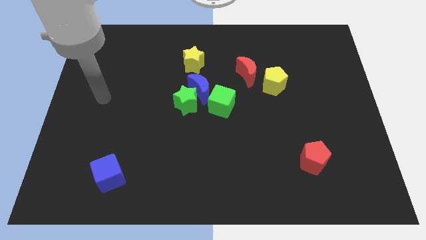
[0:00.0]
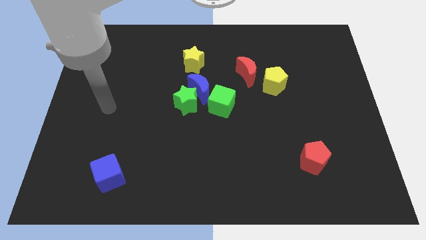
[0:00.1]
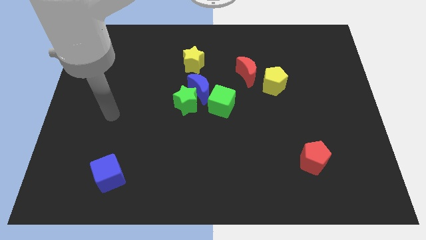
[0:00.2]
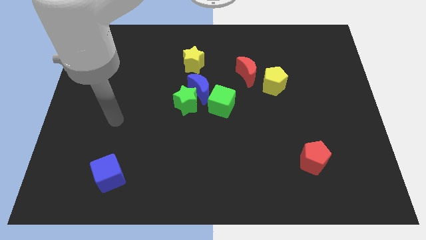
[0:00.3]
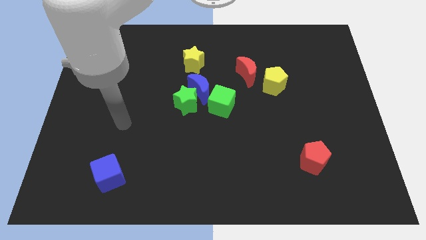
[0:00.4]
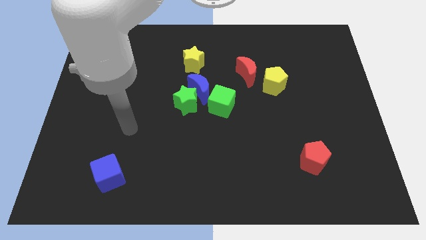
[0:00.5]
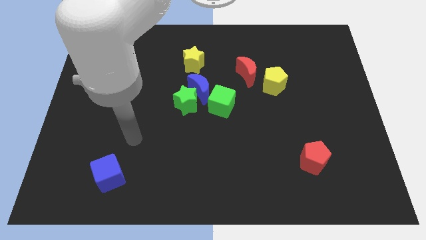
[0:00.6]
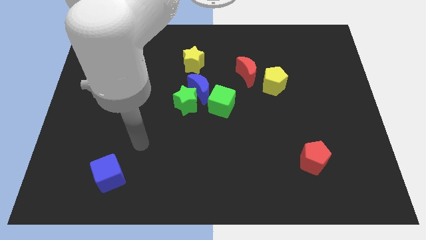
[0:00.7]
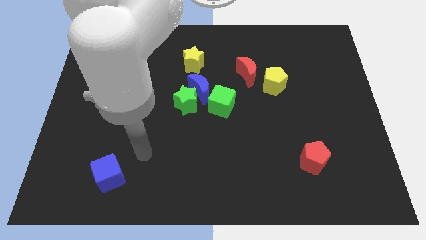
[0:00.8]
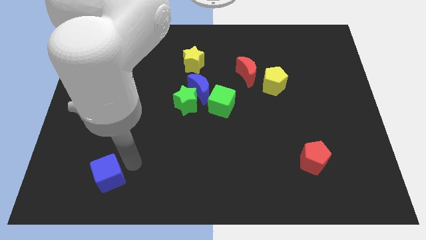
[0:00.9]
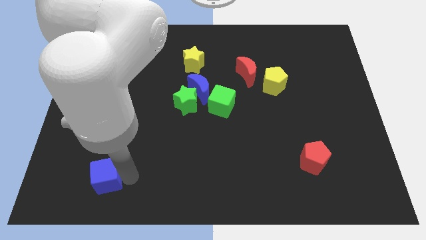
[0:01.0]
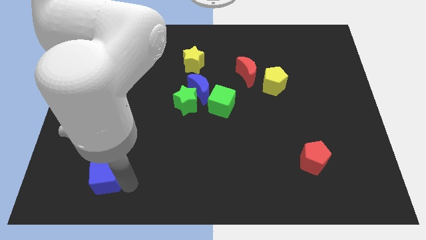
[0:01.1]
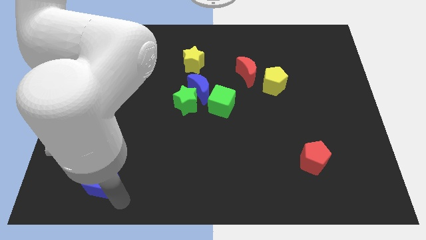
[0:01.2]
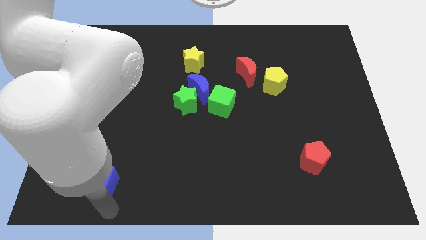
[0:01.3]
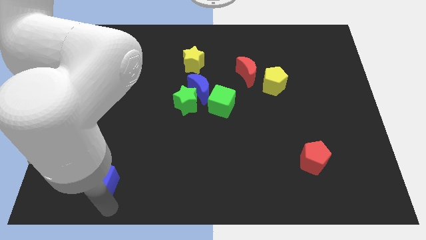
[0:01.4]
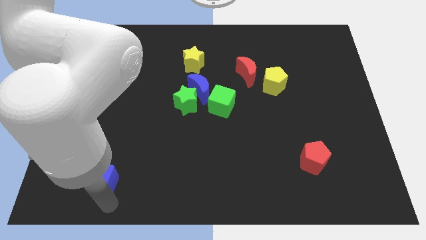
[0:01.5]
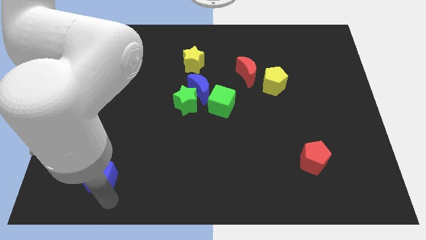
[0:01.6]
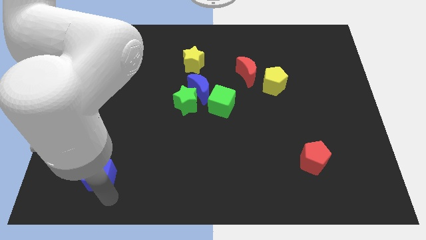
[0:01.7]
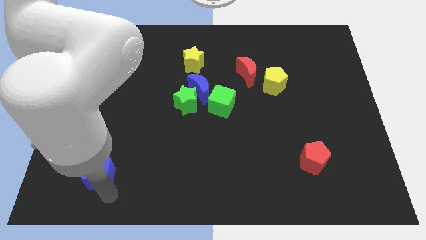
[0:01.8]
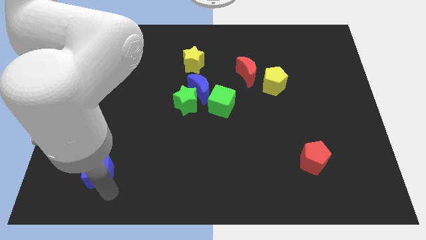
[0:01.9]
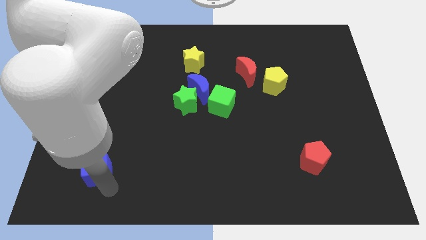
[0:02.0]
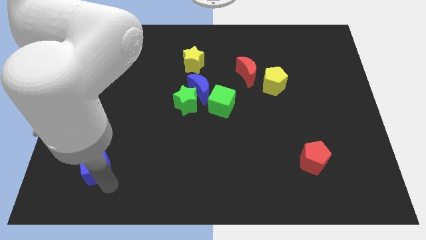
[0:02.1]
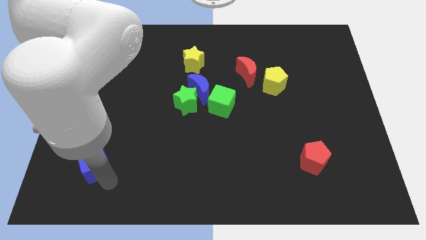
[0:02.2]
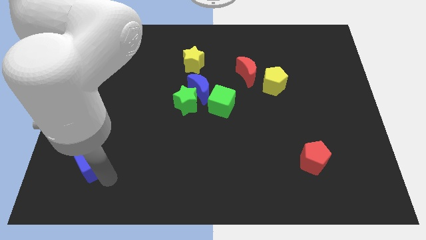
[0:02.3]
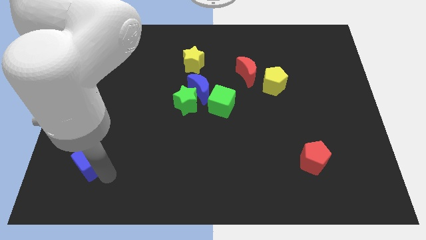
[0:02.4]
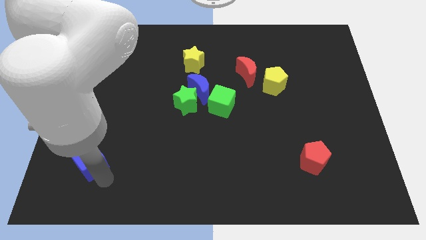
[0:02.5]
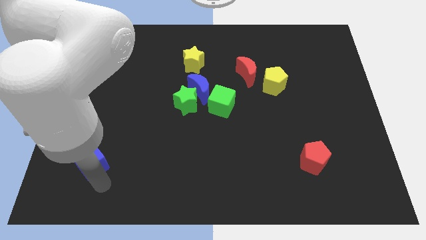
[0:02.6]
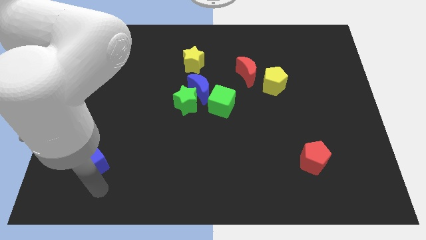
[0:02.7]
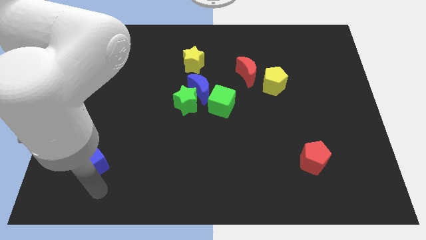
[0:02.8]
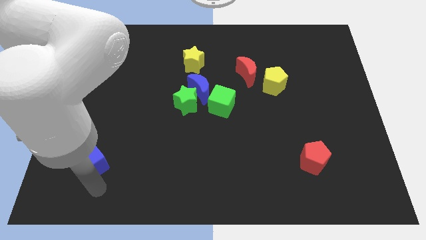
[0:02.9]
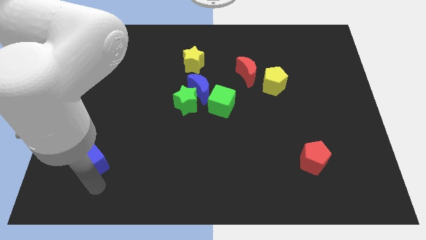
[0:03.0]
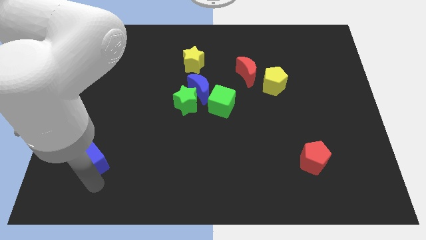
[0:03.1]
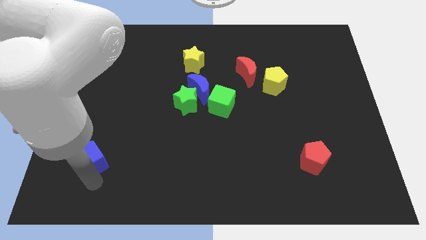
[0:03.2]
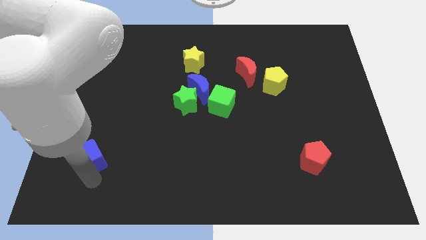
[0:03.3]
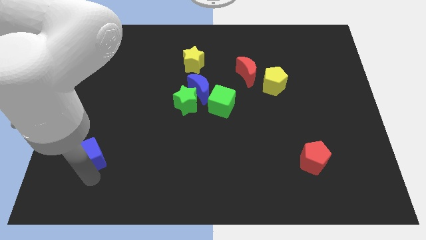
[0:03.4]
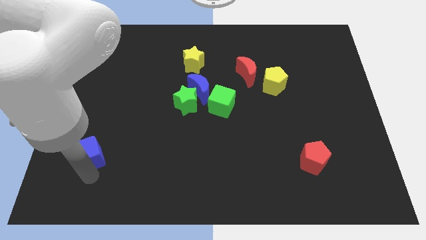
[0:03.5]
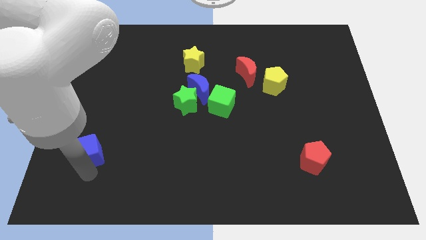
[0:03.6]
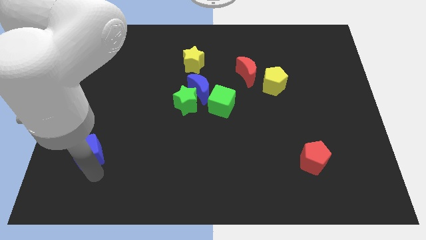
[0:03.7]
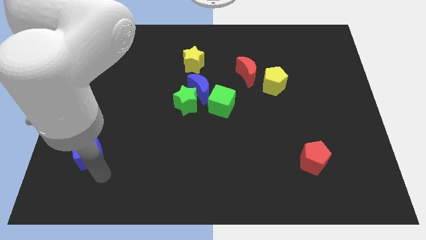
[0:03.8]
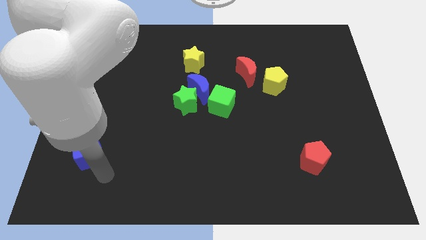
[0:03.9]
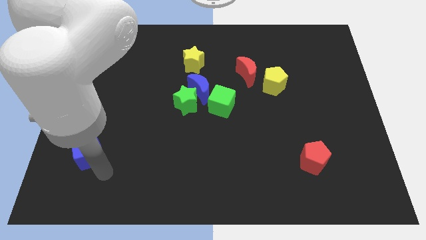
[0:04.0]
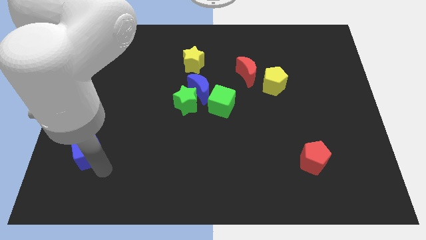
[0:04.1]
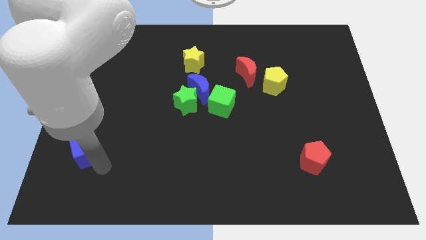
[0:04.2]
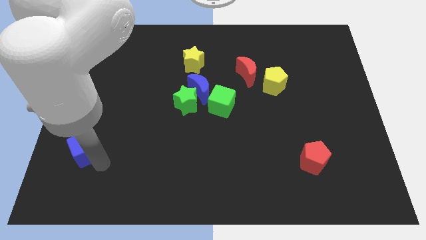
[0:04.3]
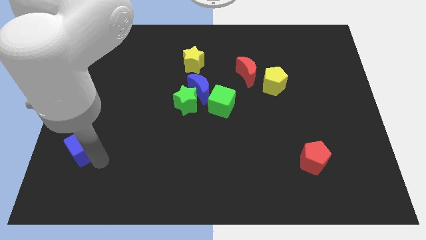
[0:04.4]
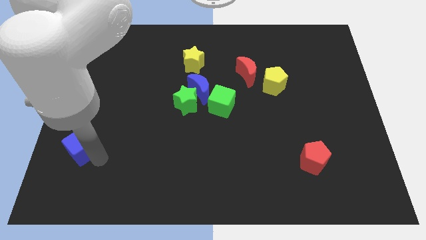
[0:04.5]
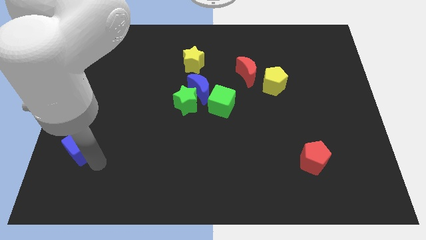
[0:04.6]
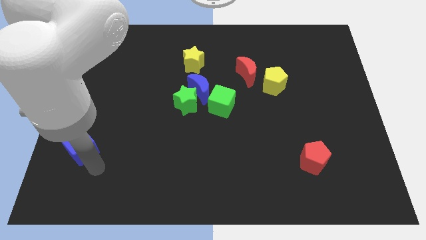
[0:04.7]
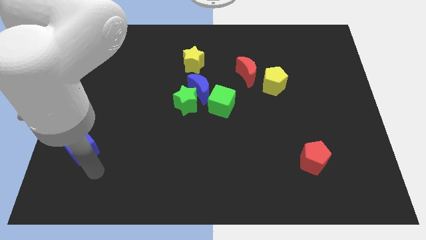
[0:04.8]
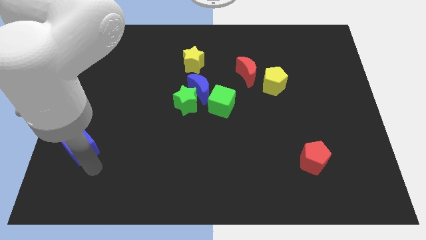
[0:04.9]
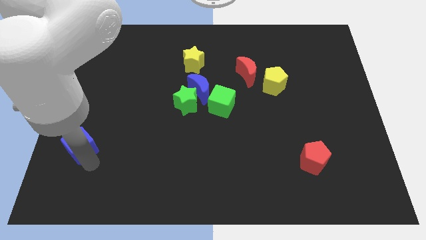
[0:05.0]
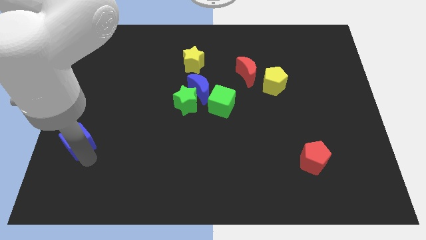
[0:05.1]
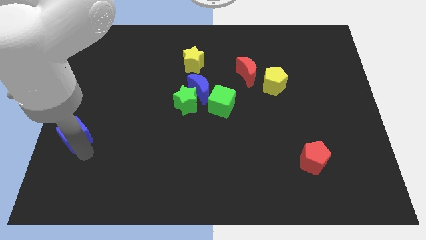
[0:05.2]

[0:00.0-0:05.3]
move the blue cube to the left side of the board
